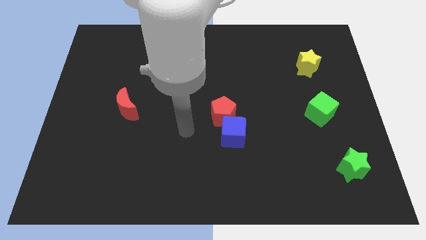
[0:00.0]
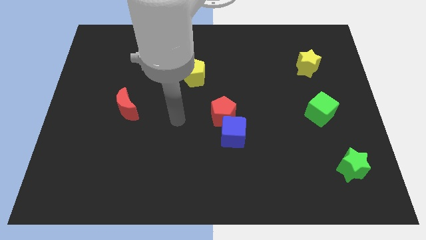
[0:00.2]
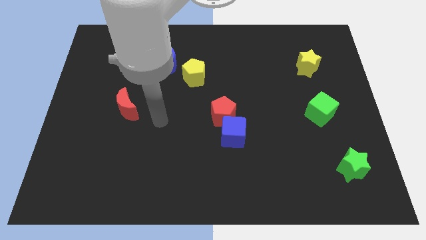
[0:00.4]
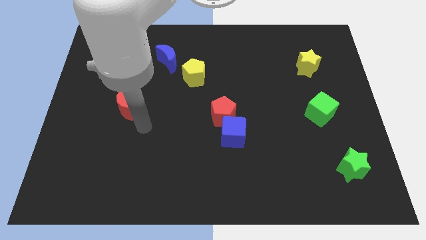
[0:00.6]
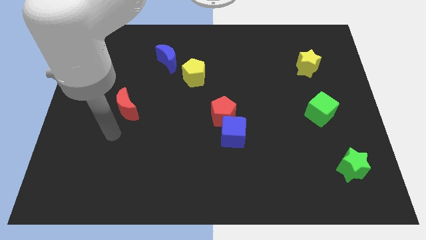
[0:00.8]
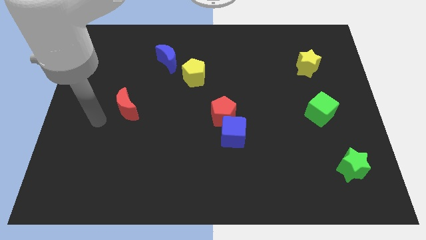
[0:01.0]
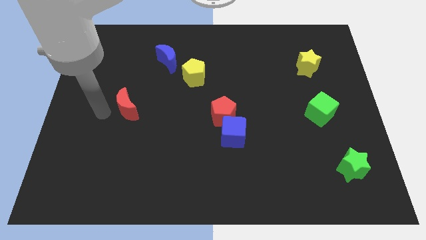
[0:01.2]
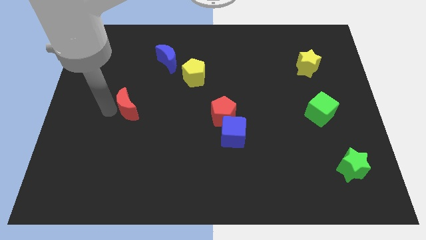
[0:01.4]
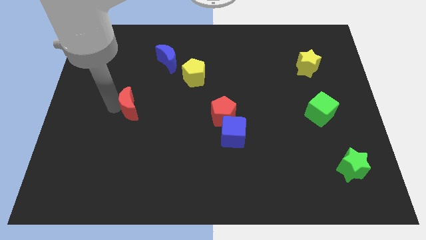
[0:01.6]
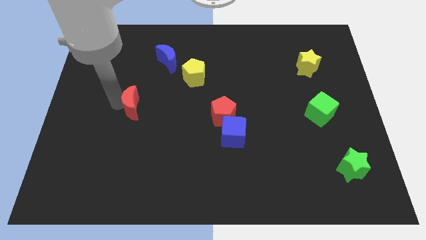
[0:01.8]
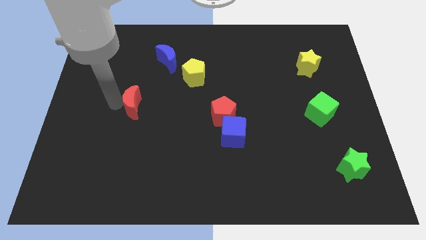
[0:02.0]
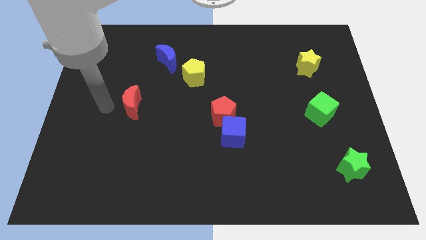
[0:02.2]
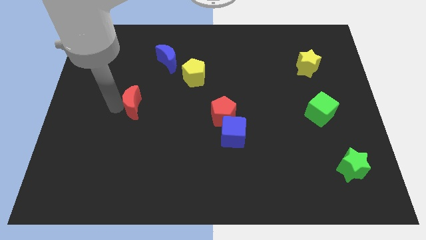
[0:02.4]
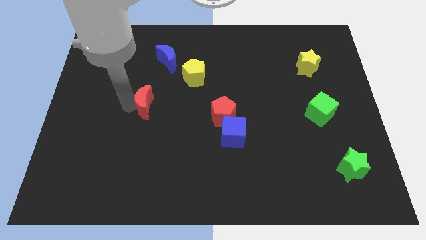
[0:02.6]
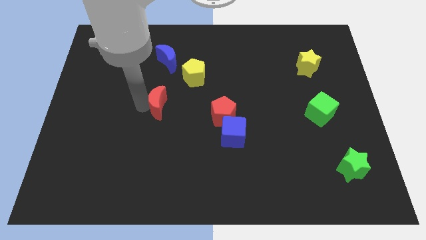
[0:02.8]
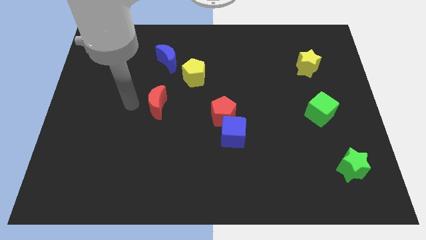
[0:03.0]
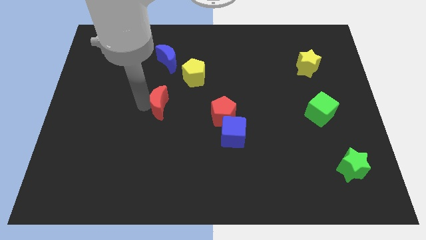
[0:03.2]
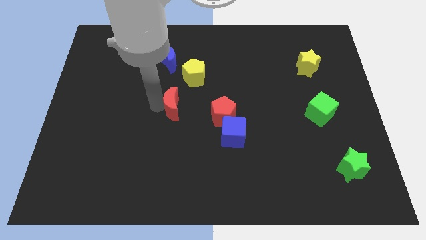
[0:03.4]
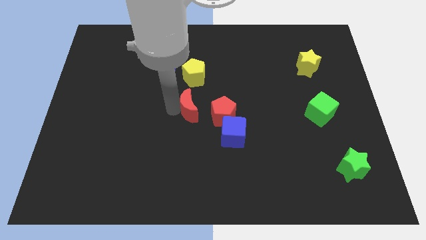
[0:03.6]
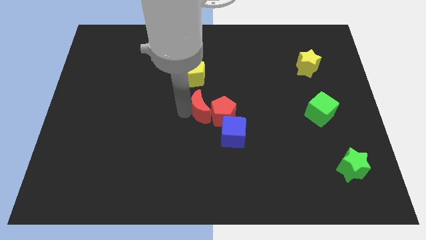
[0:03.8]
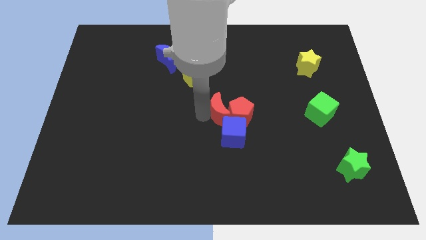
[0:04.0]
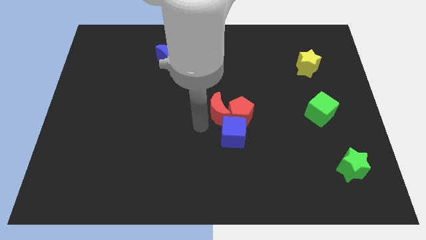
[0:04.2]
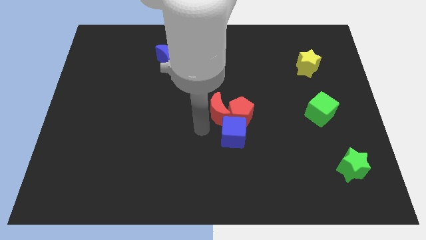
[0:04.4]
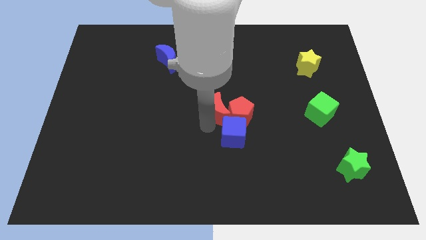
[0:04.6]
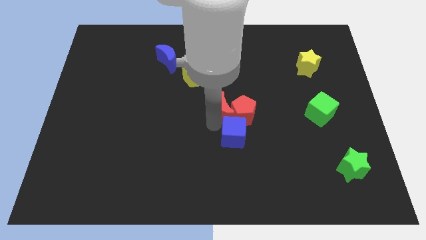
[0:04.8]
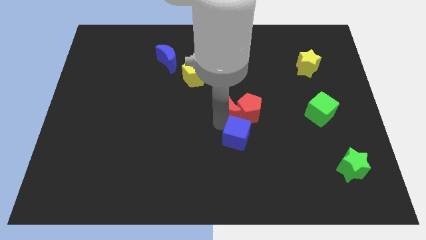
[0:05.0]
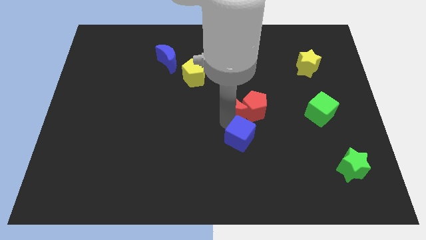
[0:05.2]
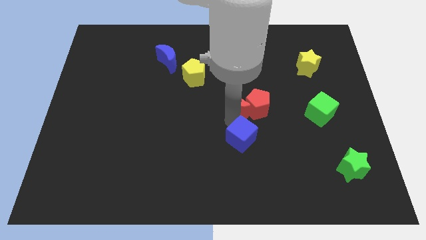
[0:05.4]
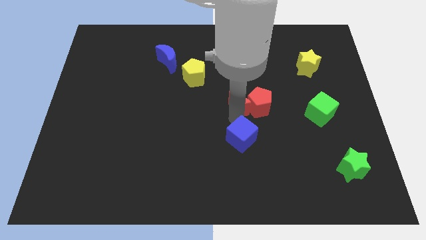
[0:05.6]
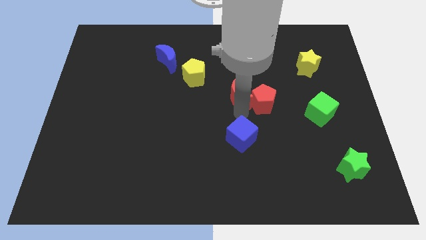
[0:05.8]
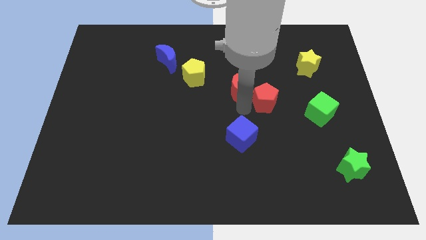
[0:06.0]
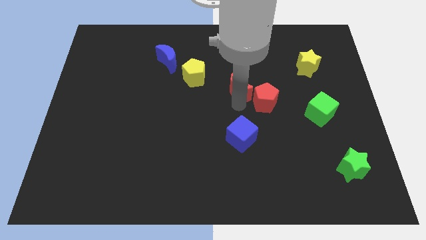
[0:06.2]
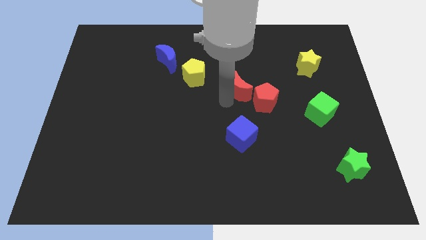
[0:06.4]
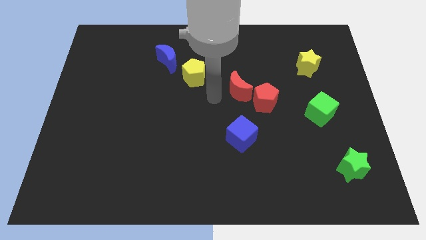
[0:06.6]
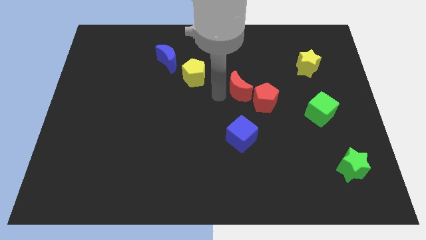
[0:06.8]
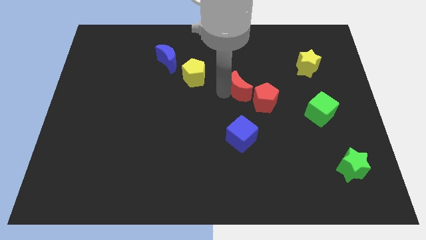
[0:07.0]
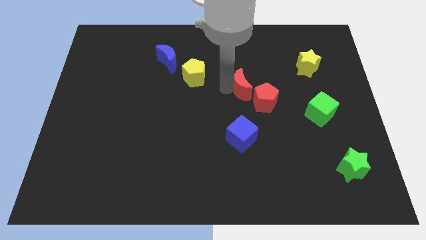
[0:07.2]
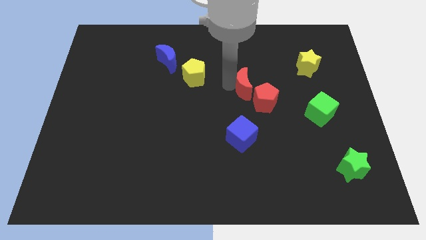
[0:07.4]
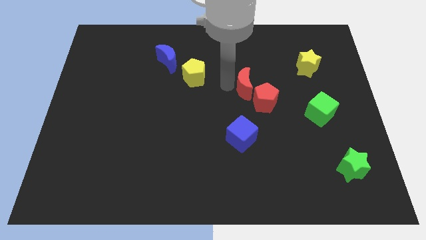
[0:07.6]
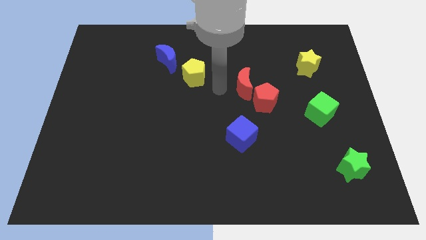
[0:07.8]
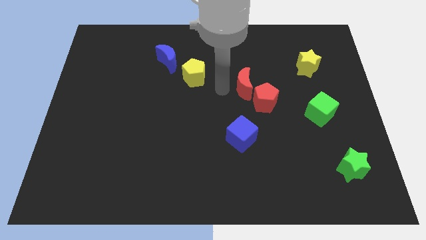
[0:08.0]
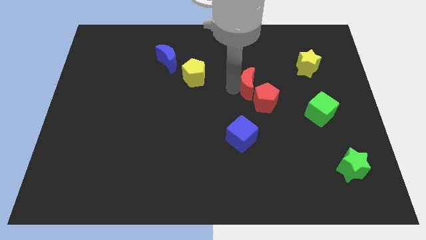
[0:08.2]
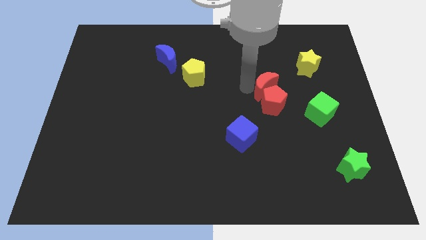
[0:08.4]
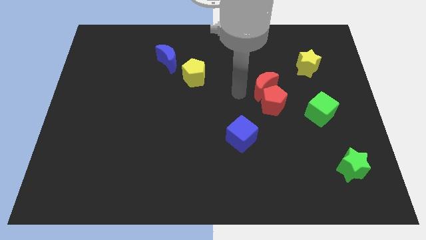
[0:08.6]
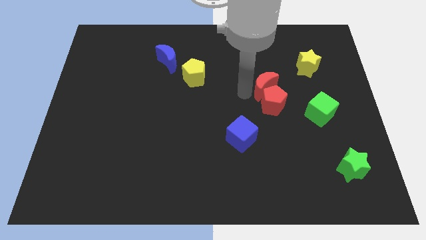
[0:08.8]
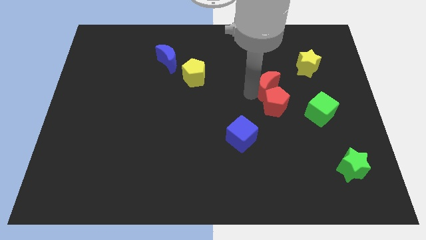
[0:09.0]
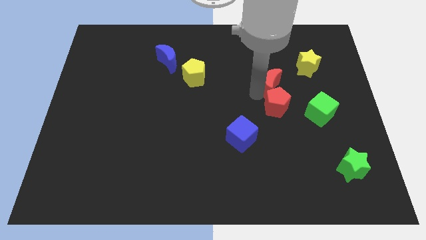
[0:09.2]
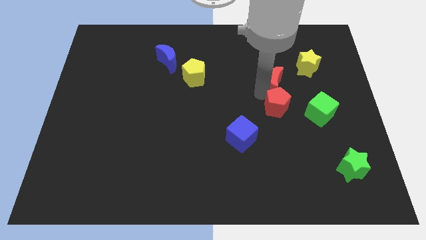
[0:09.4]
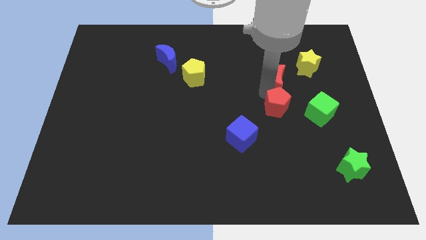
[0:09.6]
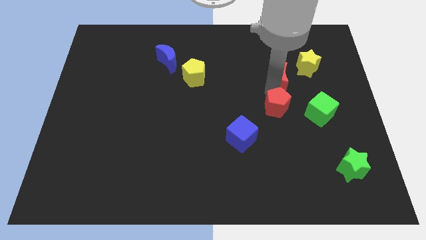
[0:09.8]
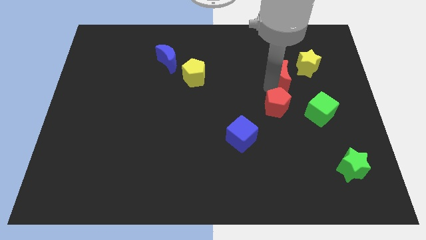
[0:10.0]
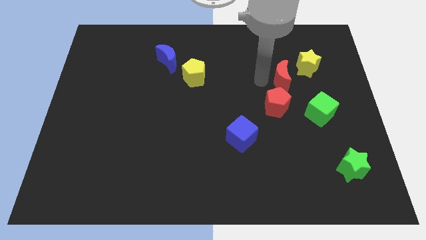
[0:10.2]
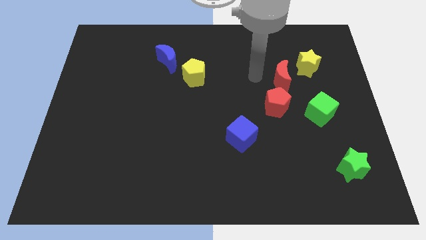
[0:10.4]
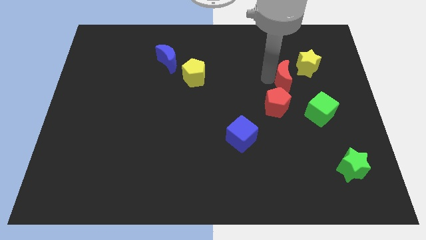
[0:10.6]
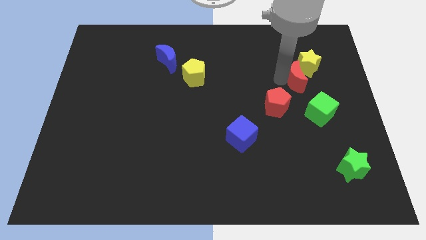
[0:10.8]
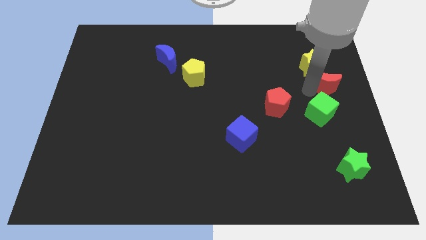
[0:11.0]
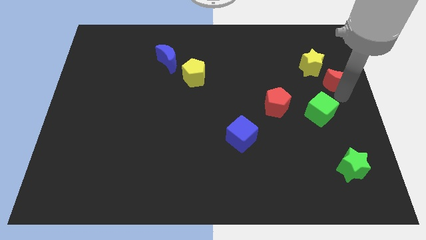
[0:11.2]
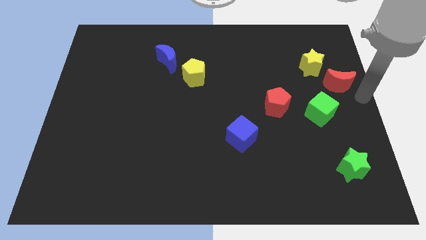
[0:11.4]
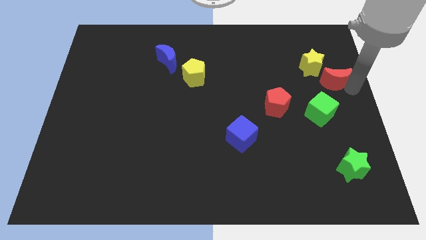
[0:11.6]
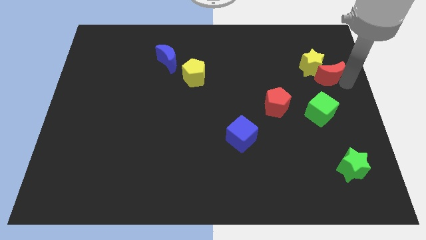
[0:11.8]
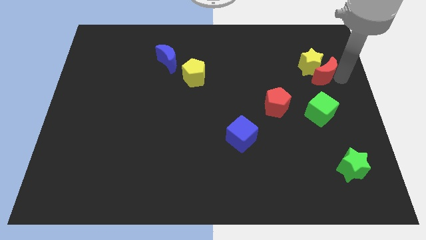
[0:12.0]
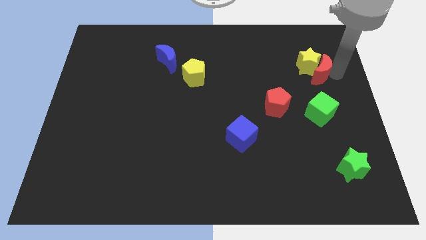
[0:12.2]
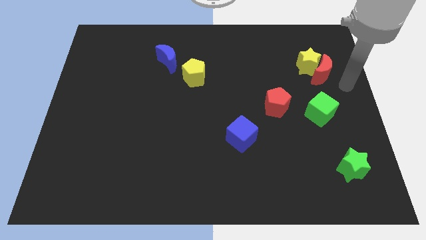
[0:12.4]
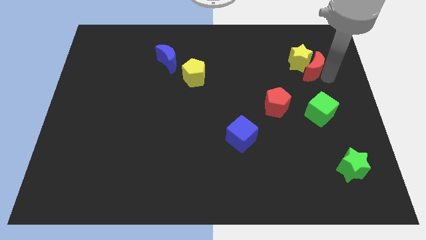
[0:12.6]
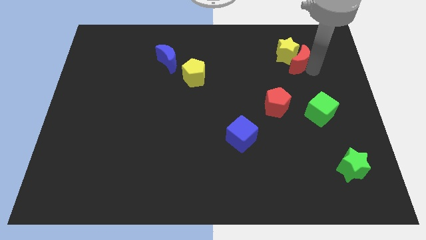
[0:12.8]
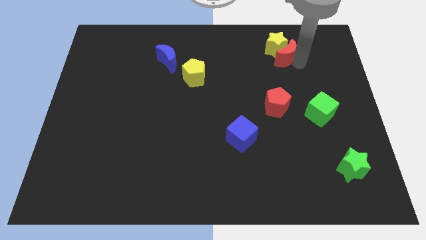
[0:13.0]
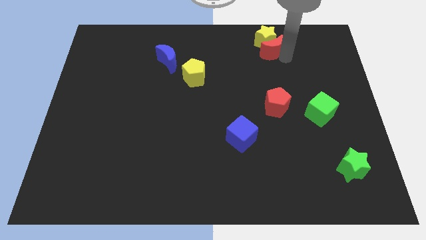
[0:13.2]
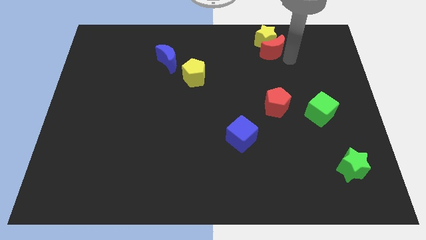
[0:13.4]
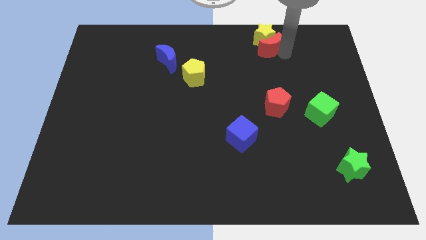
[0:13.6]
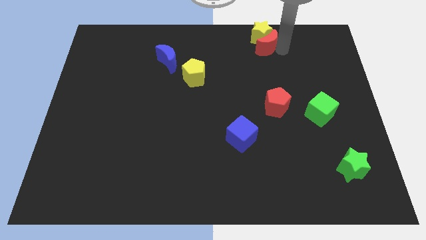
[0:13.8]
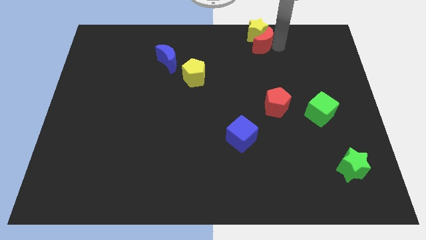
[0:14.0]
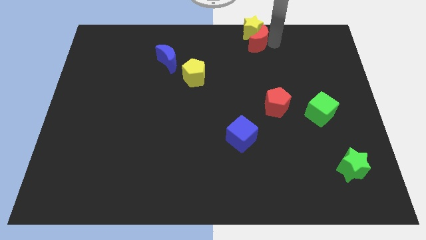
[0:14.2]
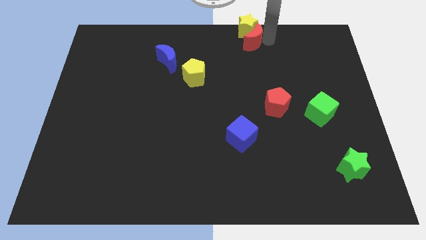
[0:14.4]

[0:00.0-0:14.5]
push the red moon to the towards your base
